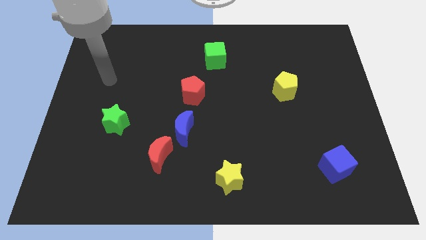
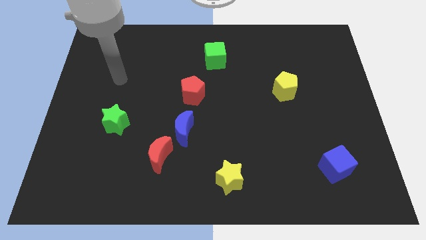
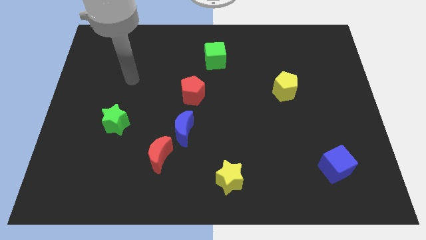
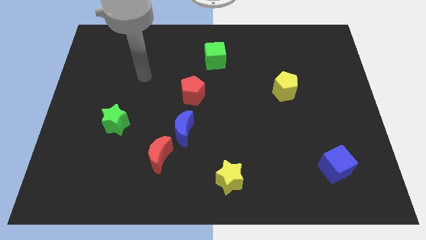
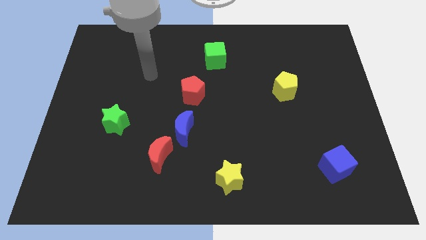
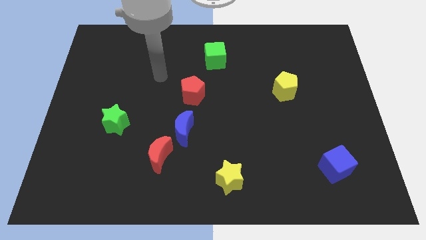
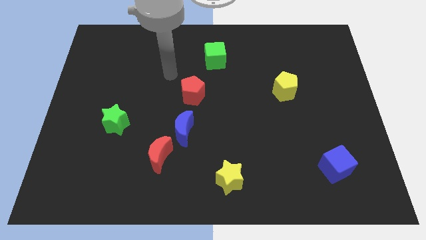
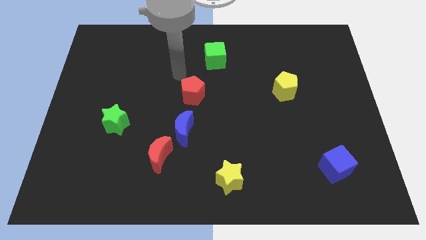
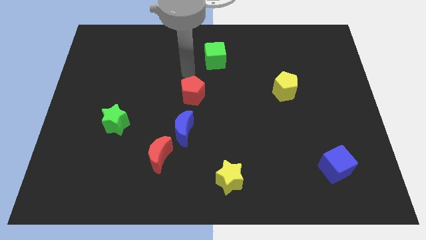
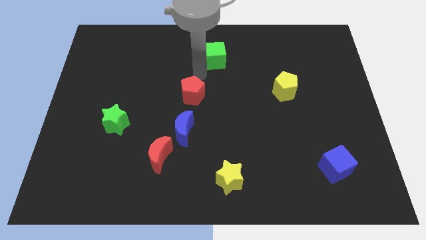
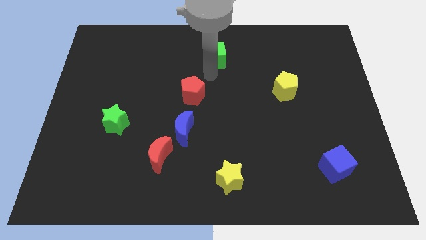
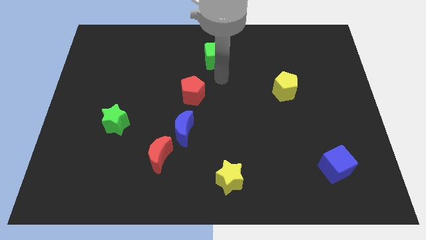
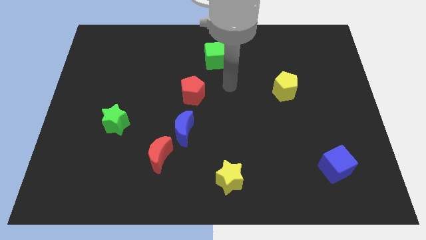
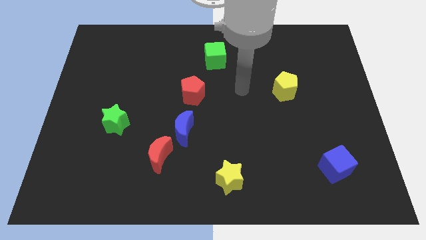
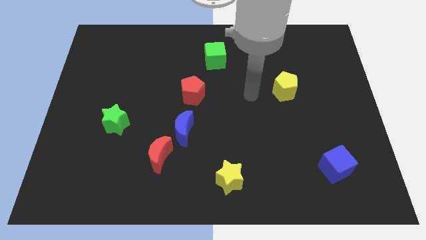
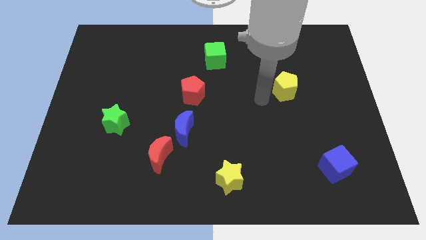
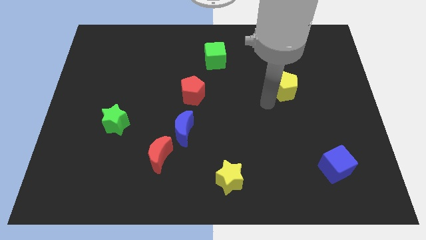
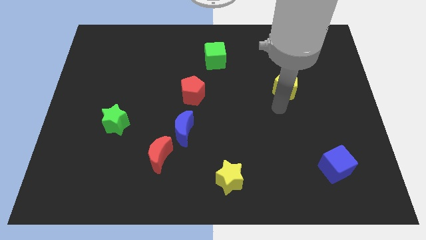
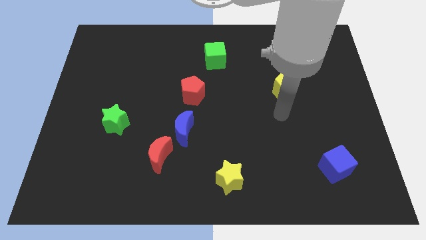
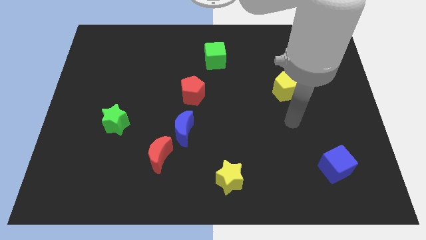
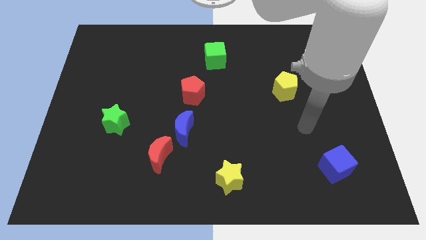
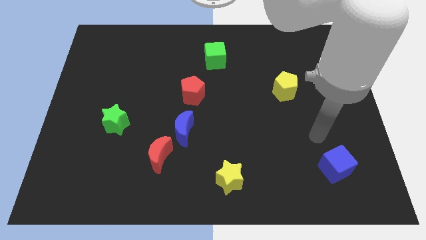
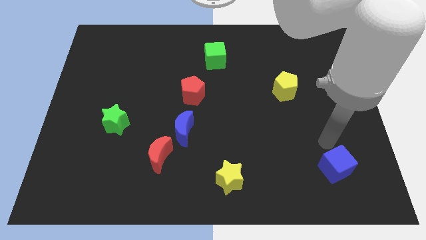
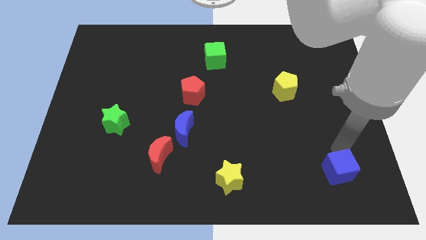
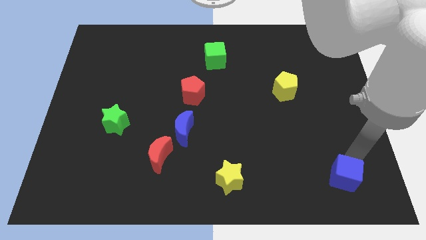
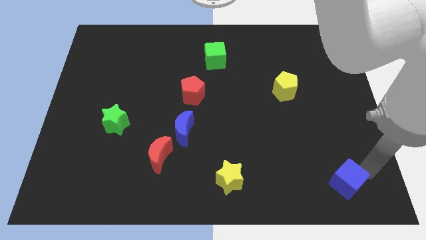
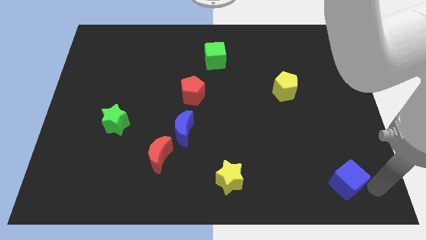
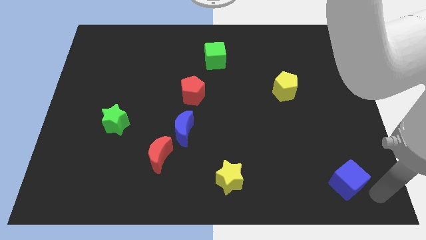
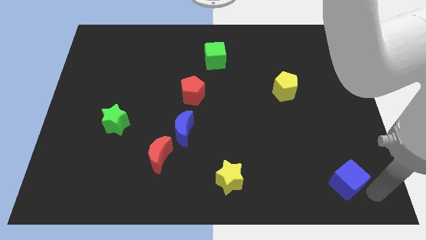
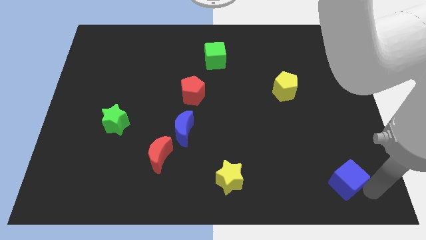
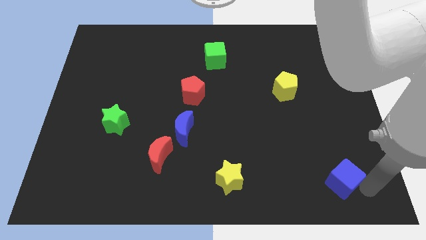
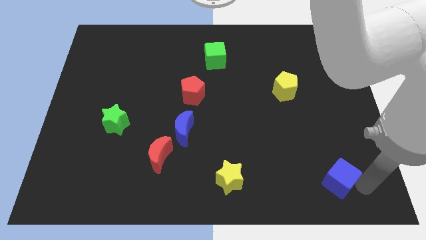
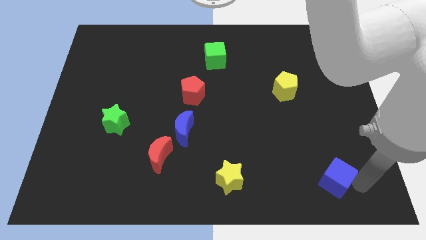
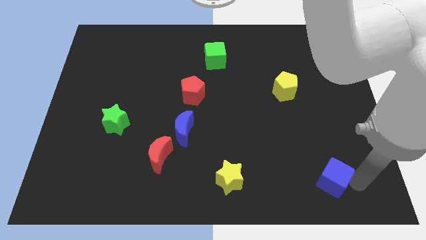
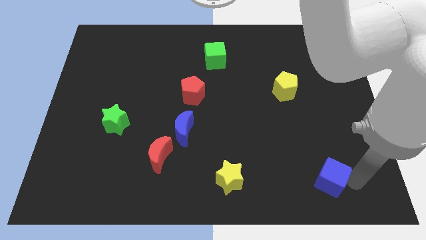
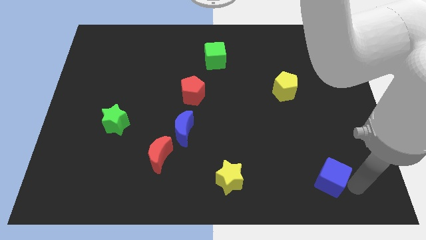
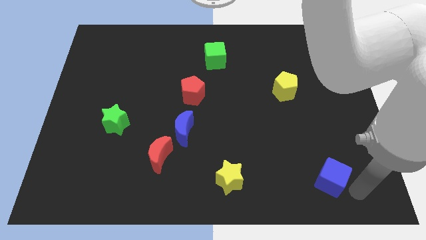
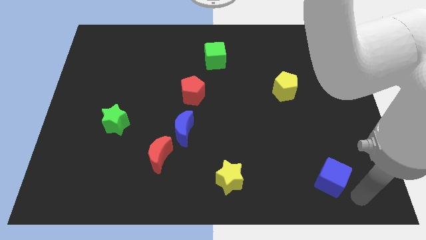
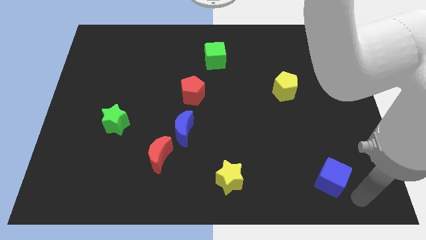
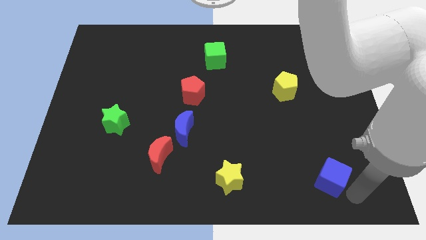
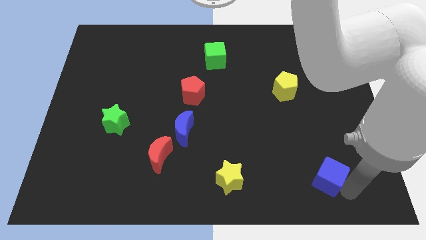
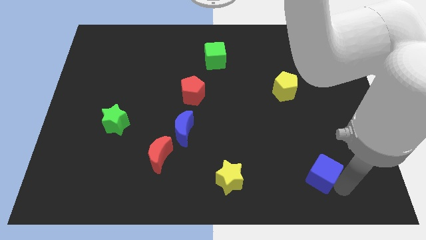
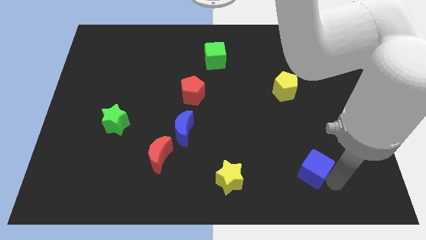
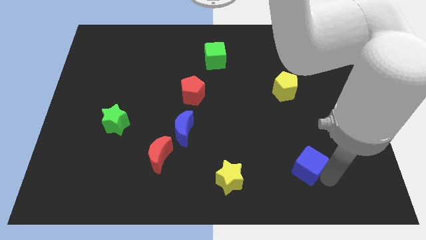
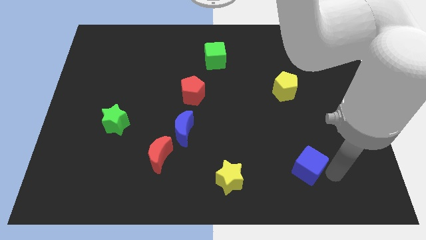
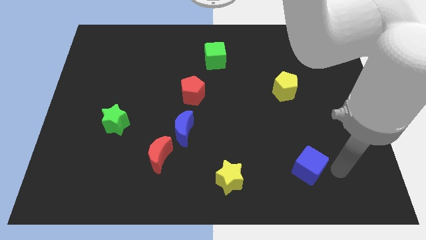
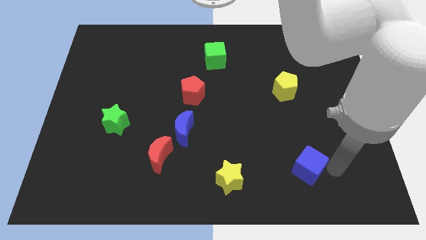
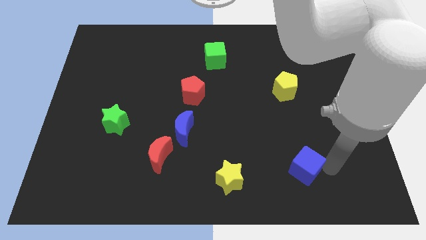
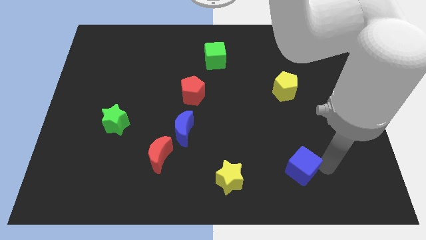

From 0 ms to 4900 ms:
move the blue cube left a bit

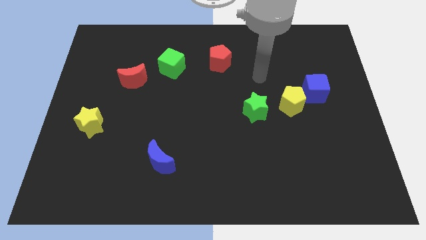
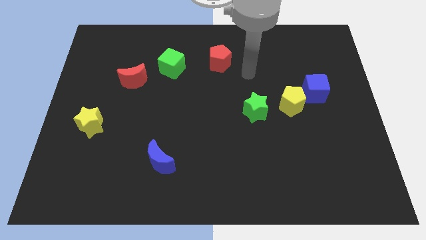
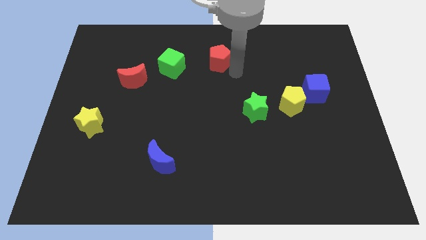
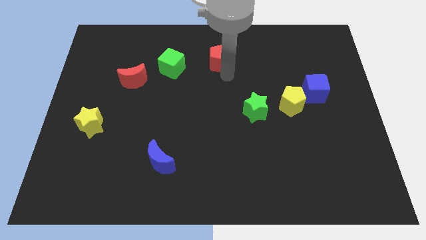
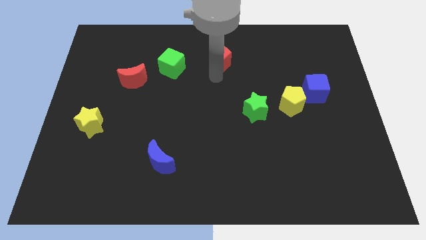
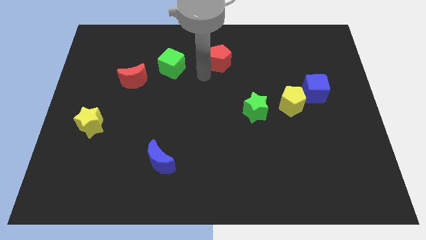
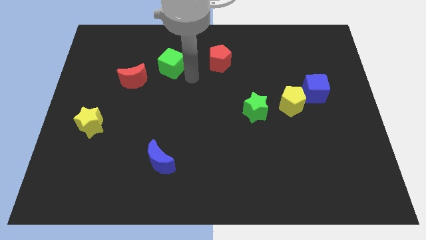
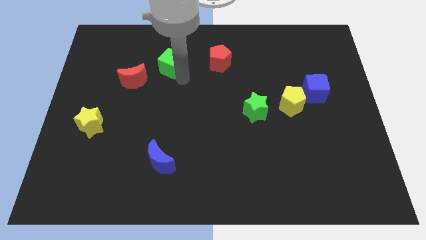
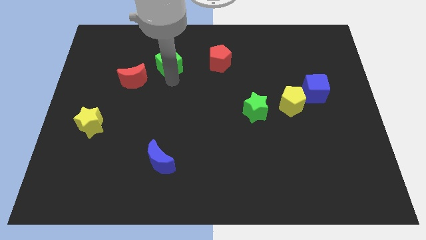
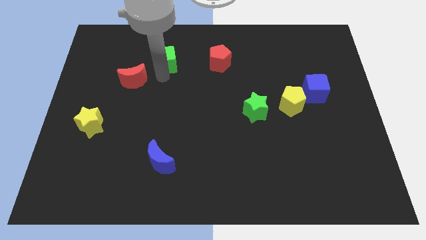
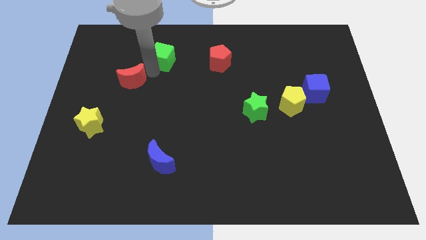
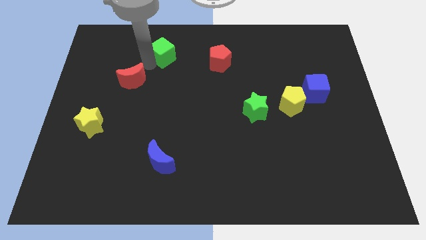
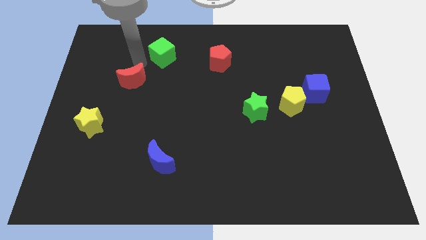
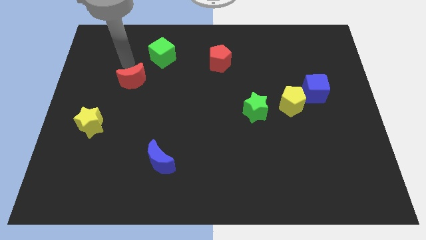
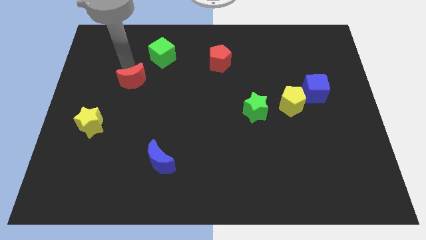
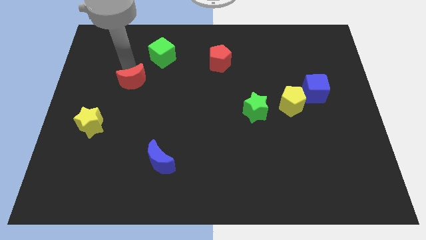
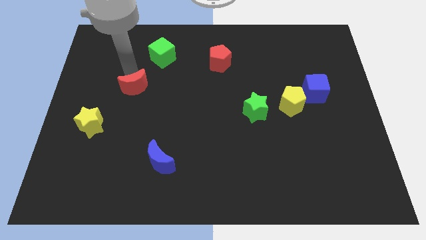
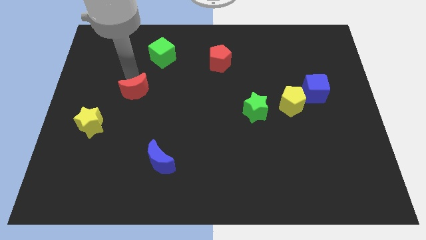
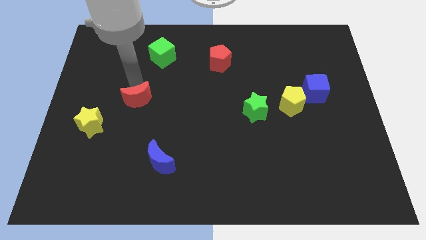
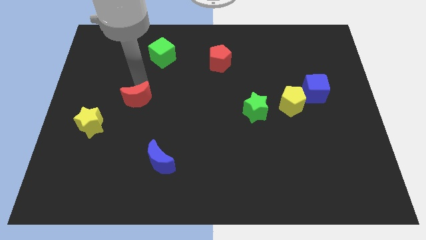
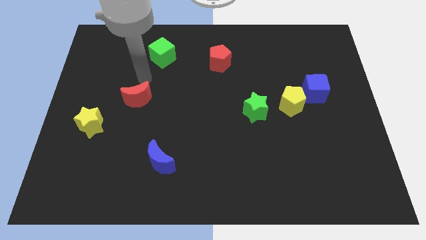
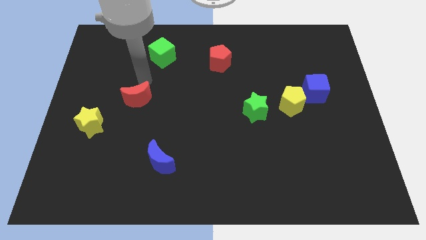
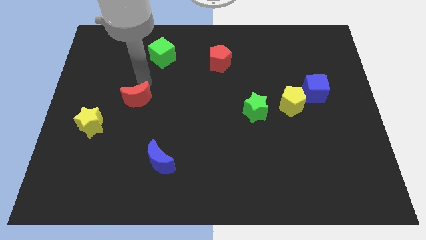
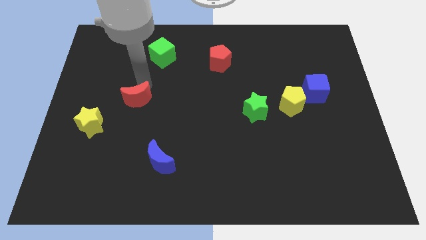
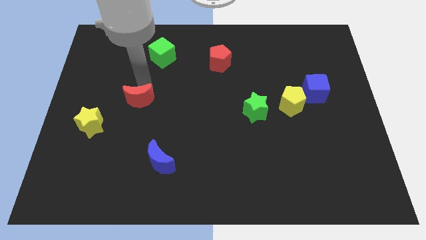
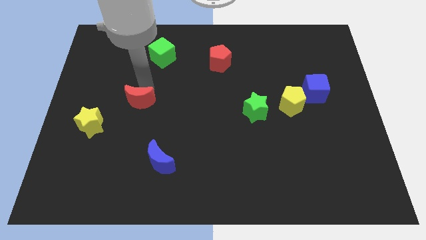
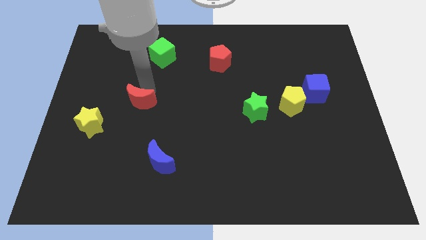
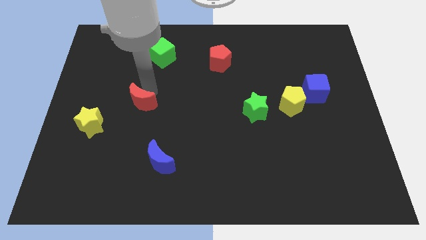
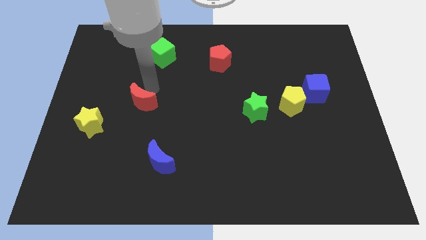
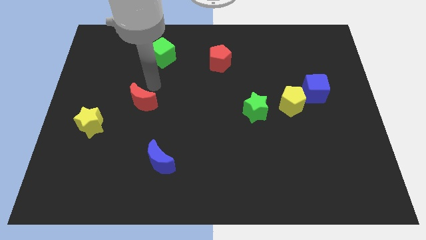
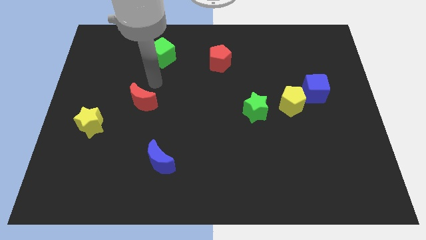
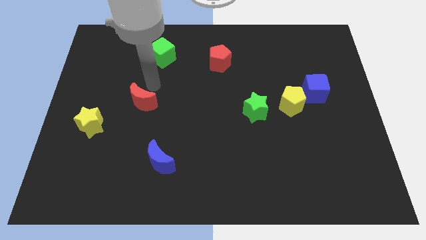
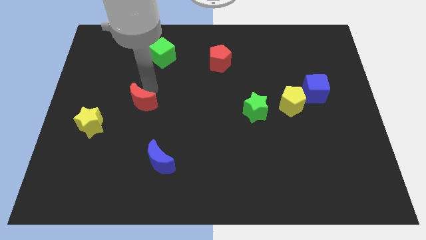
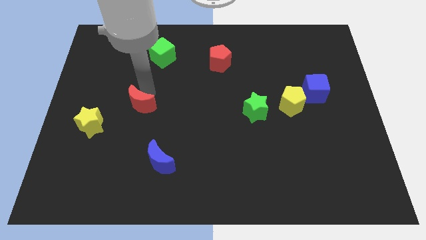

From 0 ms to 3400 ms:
slightly push the red moon down
